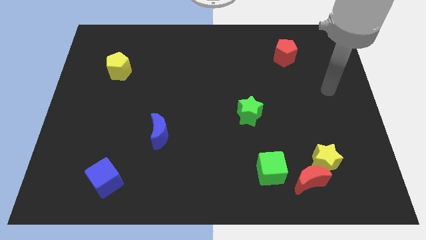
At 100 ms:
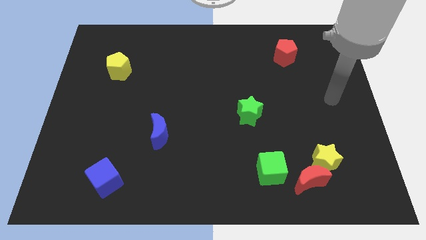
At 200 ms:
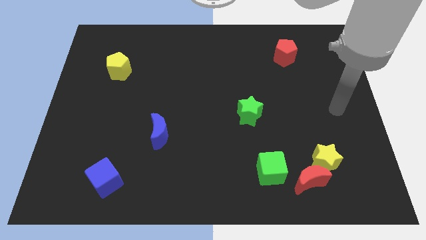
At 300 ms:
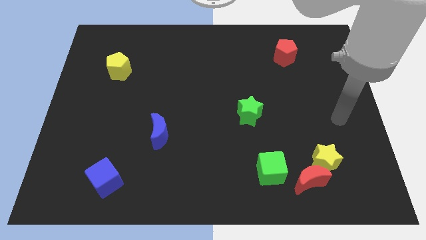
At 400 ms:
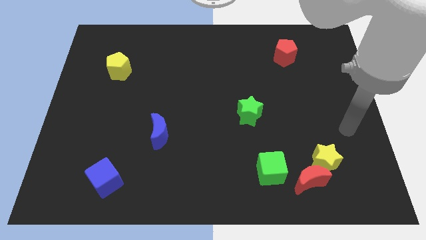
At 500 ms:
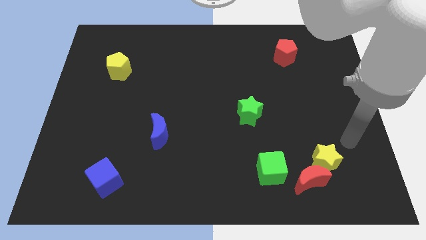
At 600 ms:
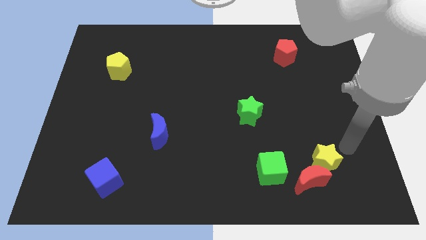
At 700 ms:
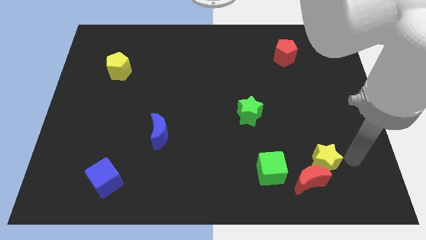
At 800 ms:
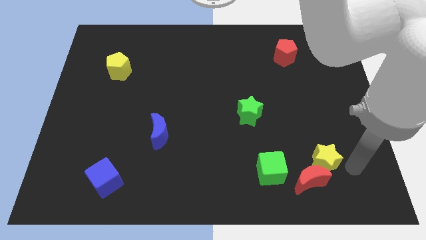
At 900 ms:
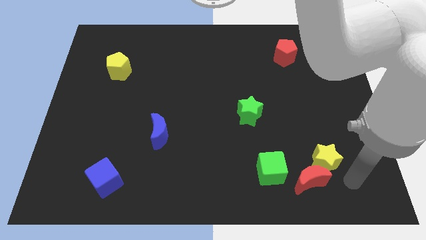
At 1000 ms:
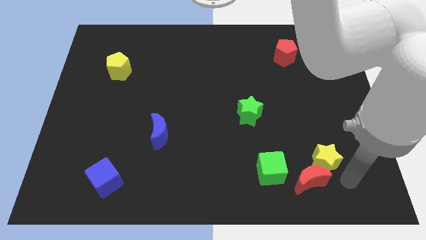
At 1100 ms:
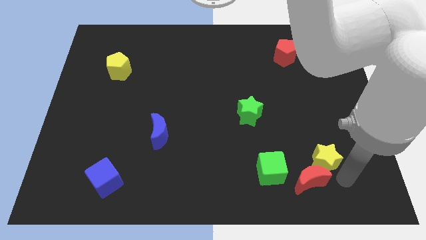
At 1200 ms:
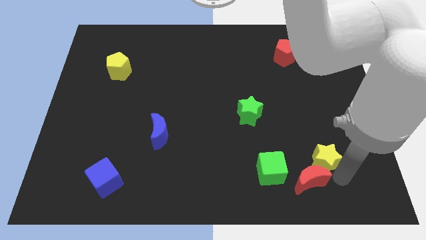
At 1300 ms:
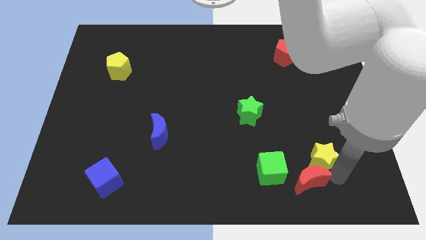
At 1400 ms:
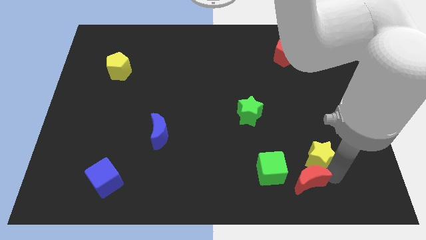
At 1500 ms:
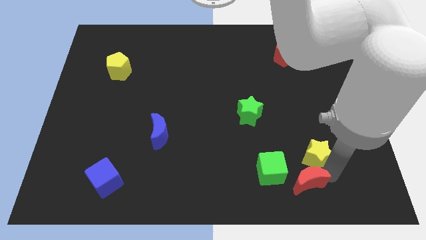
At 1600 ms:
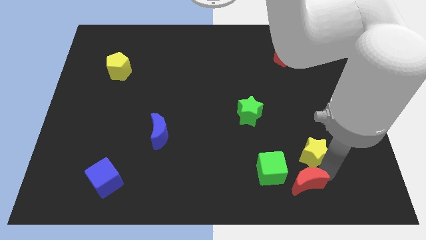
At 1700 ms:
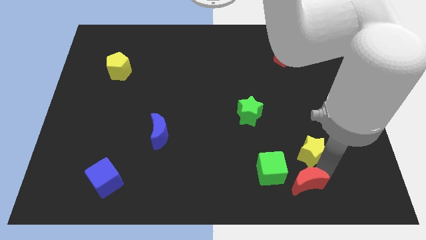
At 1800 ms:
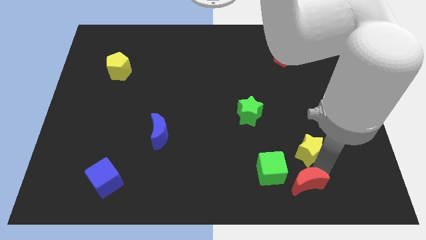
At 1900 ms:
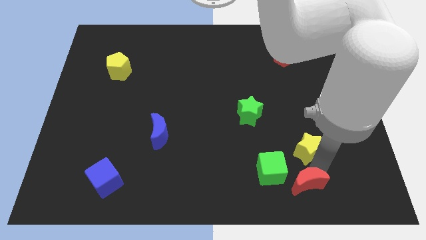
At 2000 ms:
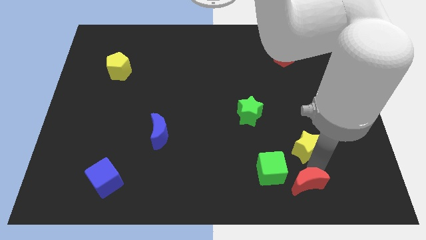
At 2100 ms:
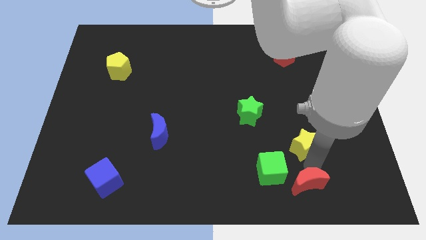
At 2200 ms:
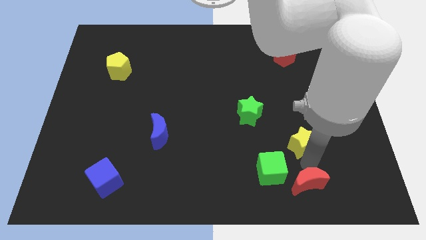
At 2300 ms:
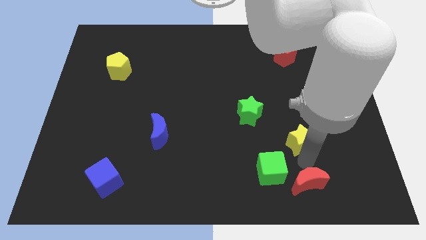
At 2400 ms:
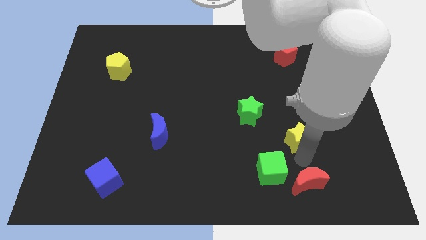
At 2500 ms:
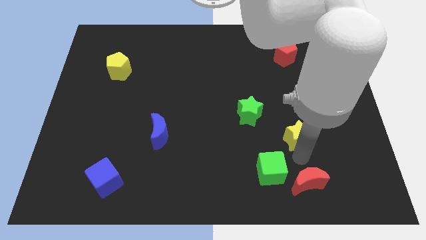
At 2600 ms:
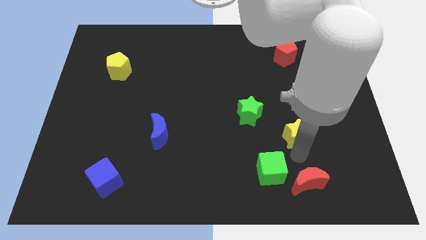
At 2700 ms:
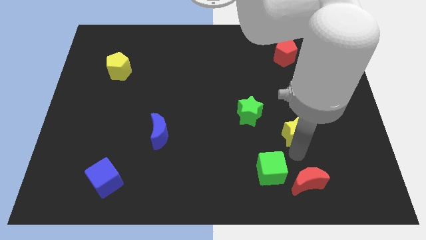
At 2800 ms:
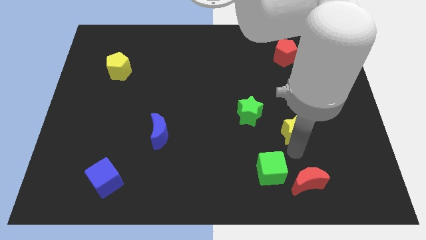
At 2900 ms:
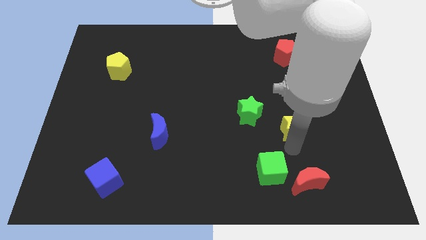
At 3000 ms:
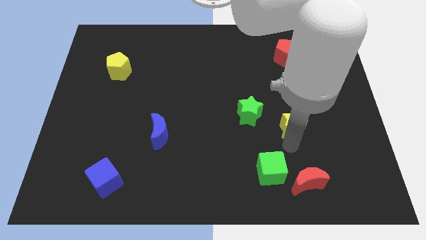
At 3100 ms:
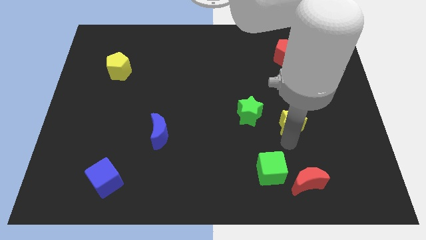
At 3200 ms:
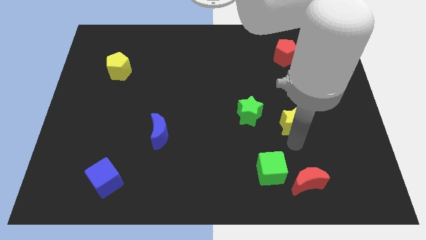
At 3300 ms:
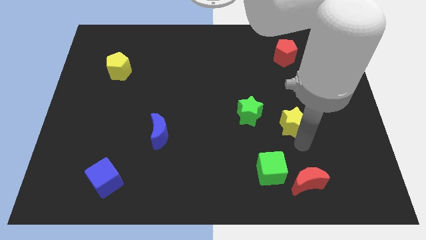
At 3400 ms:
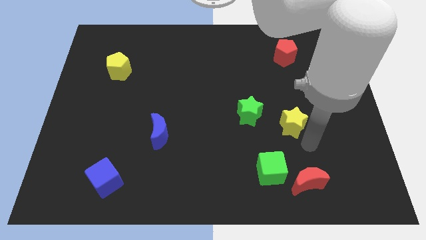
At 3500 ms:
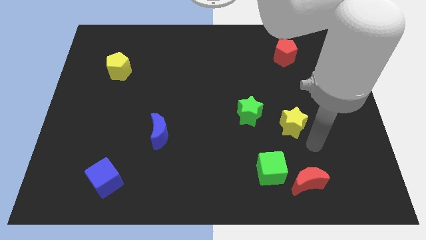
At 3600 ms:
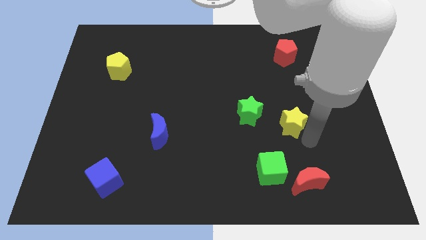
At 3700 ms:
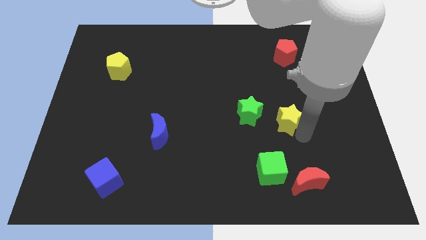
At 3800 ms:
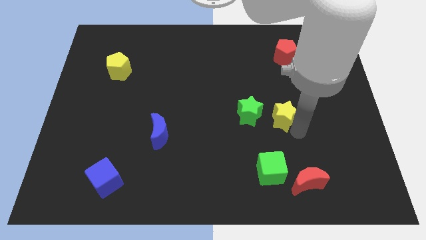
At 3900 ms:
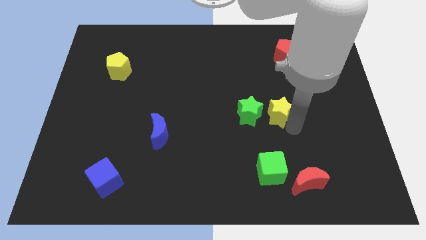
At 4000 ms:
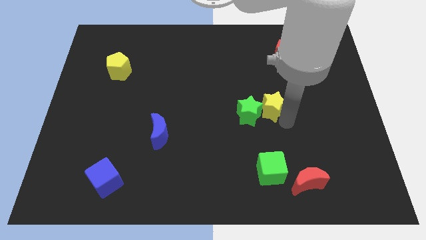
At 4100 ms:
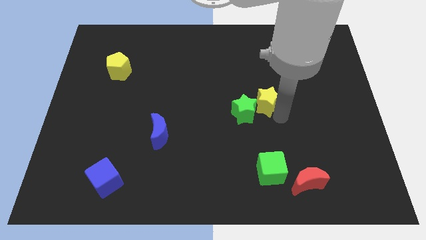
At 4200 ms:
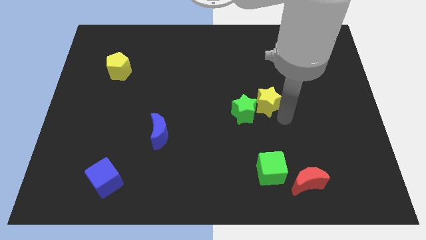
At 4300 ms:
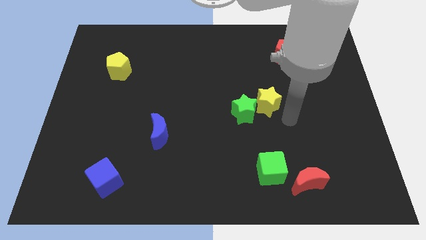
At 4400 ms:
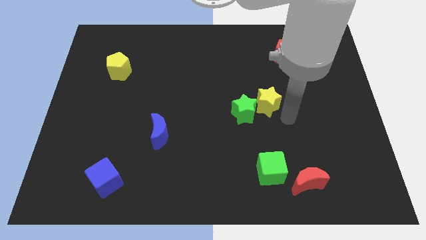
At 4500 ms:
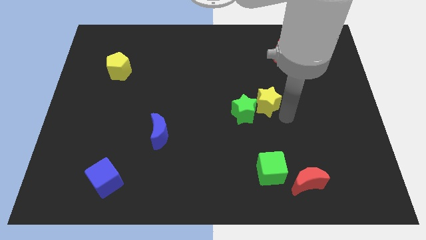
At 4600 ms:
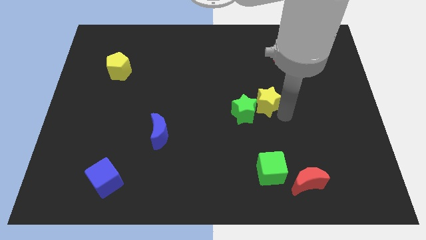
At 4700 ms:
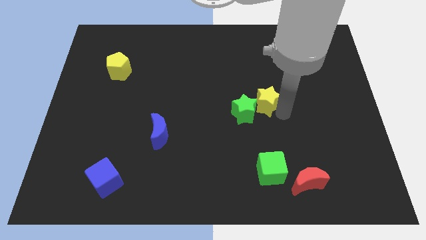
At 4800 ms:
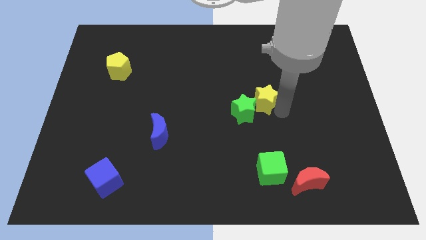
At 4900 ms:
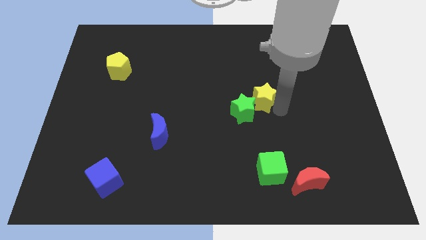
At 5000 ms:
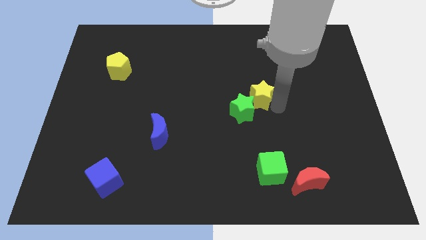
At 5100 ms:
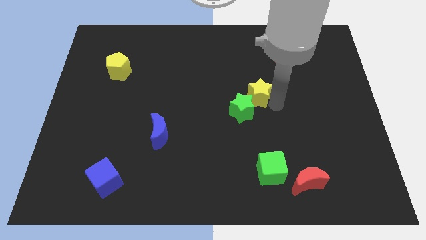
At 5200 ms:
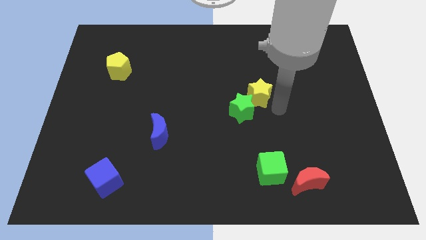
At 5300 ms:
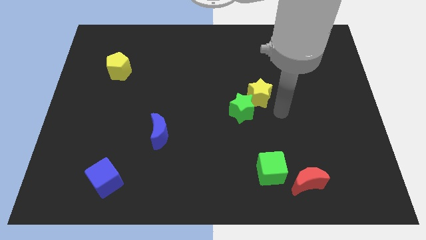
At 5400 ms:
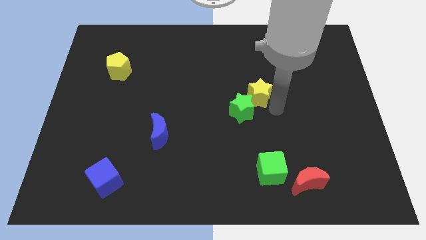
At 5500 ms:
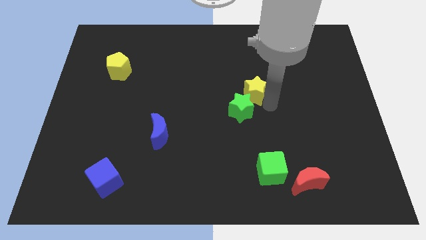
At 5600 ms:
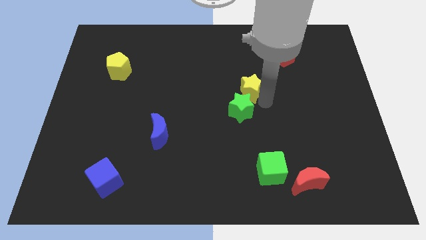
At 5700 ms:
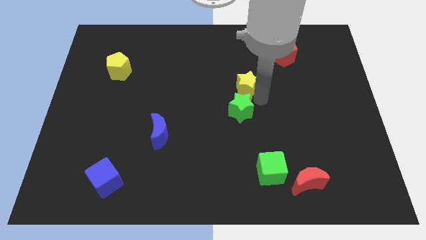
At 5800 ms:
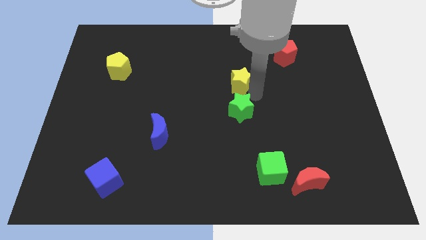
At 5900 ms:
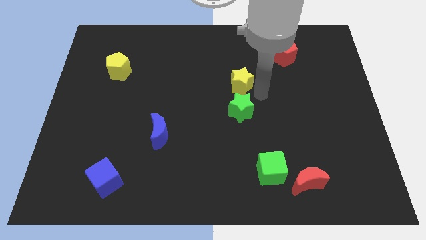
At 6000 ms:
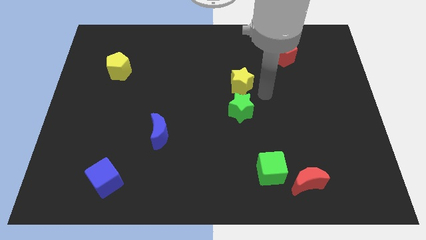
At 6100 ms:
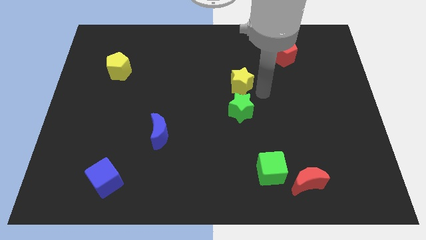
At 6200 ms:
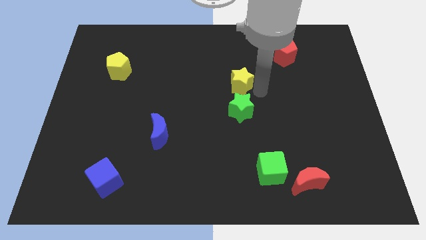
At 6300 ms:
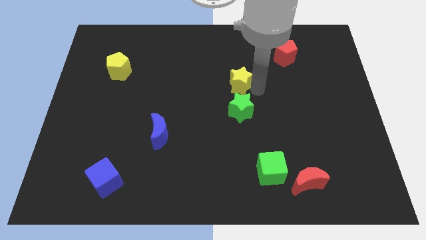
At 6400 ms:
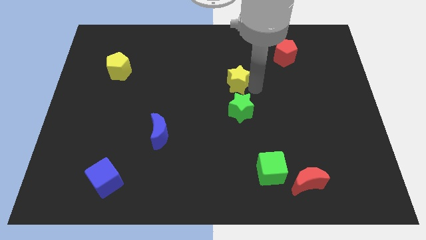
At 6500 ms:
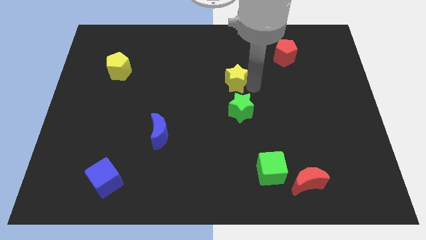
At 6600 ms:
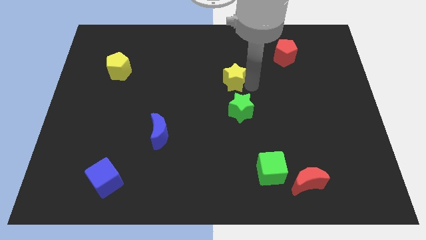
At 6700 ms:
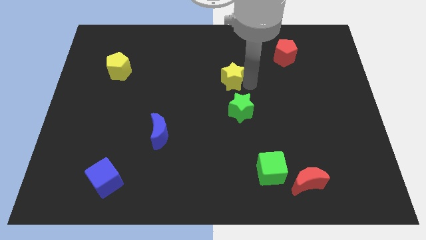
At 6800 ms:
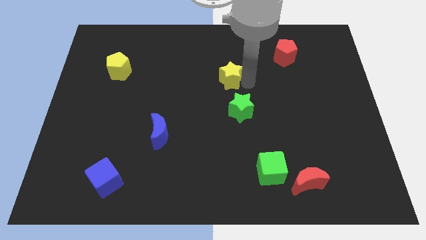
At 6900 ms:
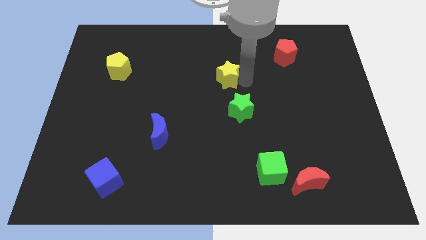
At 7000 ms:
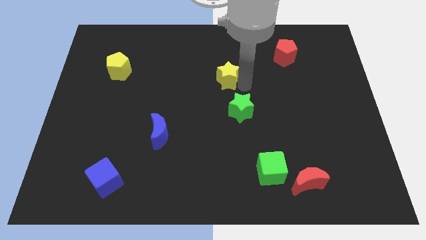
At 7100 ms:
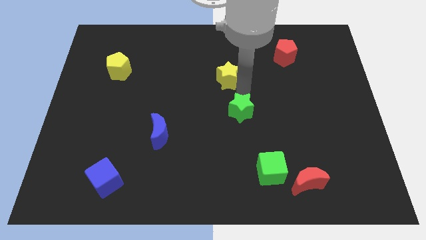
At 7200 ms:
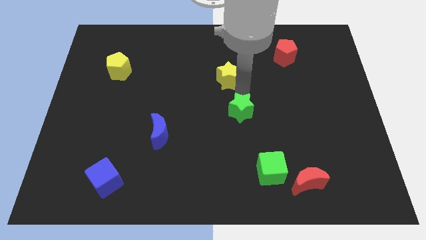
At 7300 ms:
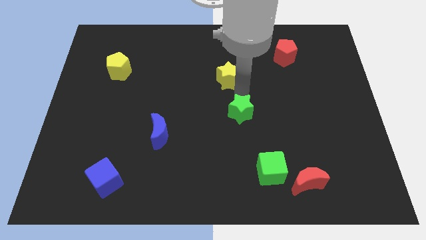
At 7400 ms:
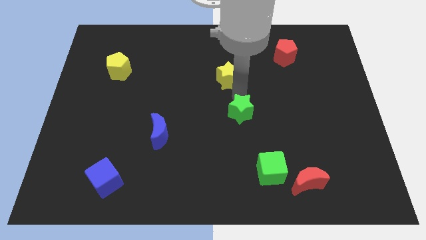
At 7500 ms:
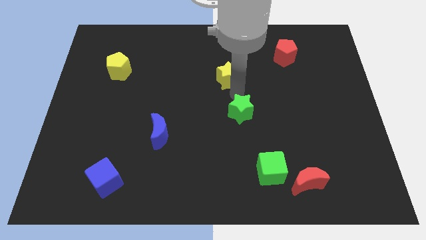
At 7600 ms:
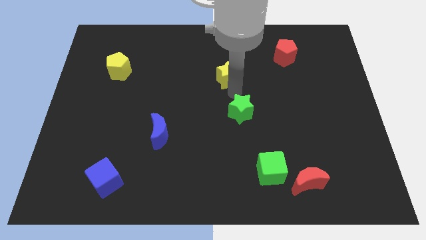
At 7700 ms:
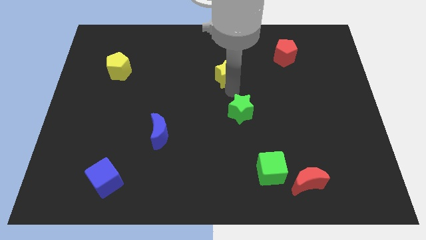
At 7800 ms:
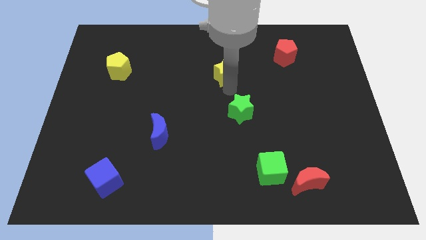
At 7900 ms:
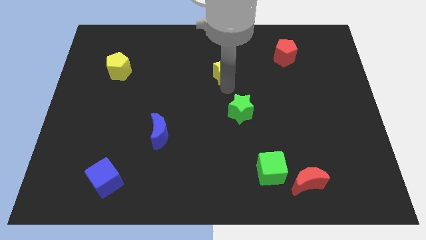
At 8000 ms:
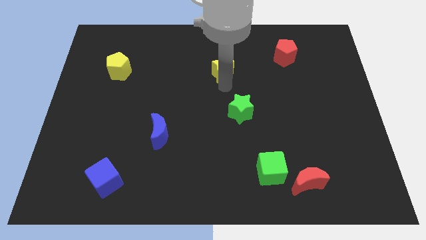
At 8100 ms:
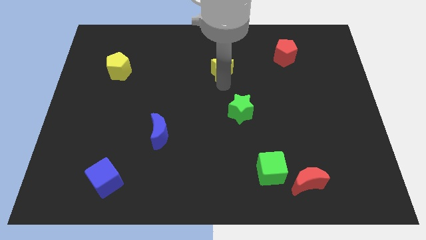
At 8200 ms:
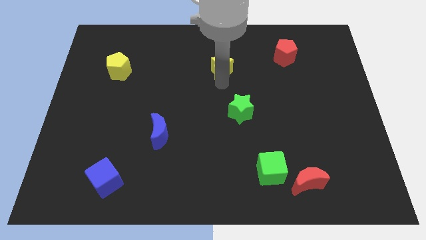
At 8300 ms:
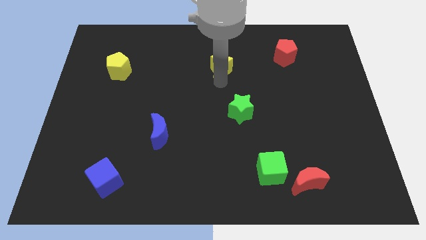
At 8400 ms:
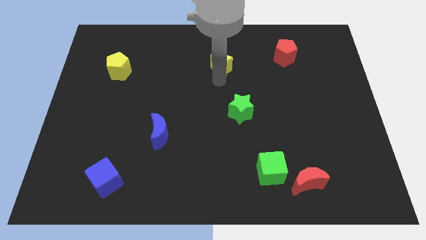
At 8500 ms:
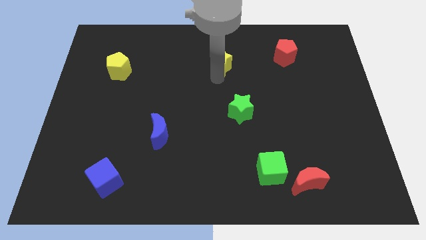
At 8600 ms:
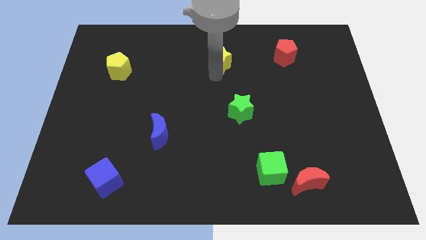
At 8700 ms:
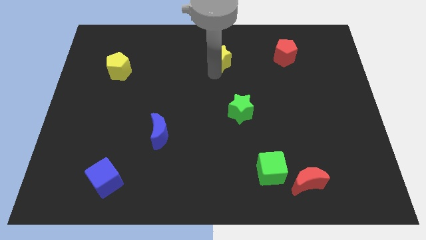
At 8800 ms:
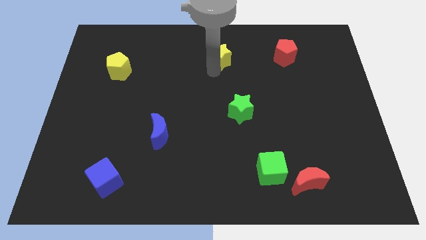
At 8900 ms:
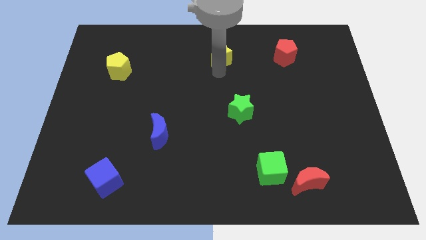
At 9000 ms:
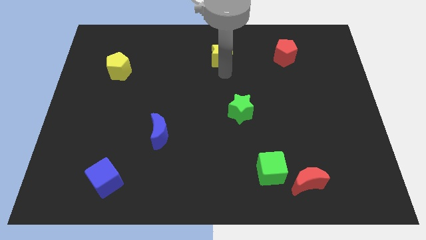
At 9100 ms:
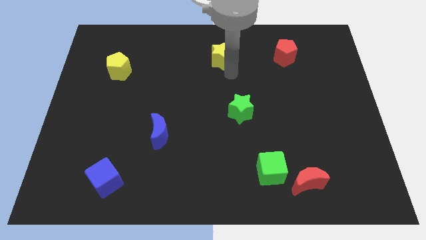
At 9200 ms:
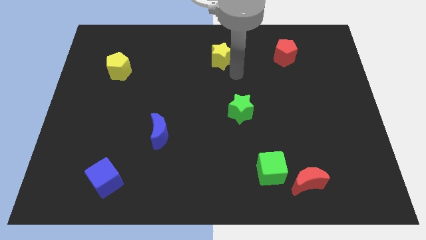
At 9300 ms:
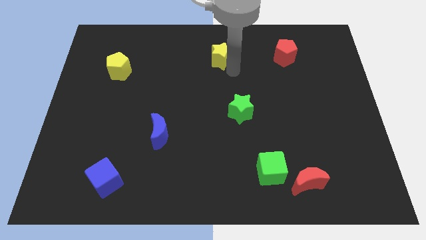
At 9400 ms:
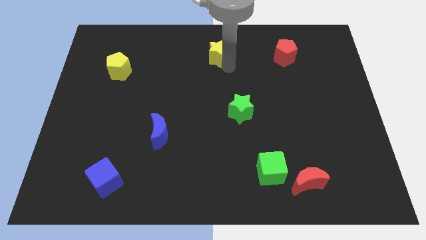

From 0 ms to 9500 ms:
push the yellow star to the top side
